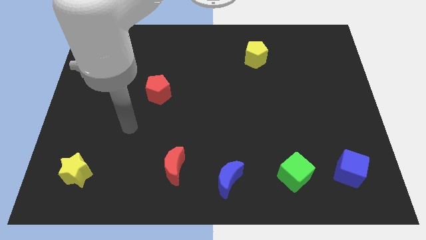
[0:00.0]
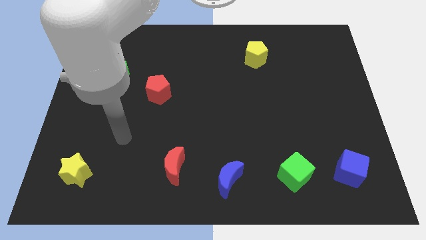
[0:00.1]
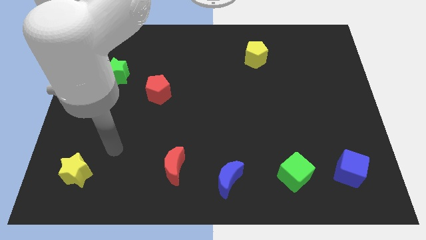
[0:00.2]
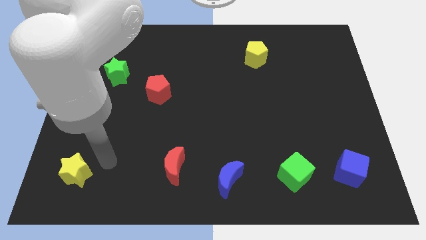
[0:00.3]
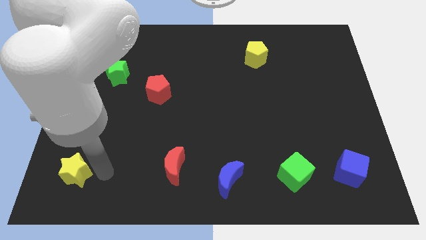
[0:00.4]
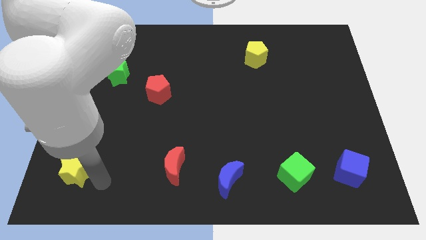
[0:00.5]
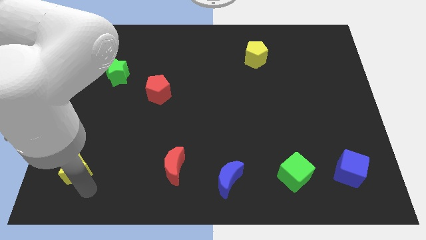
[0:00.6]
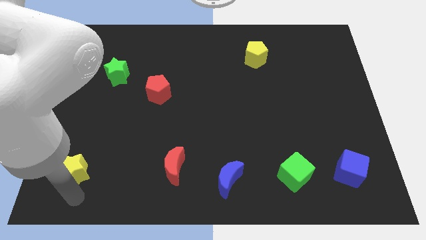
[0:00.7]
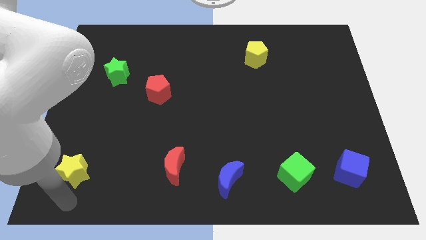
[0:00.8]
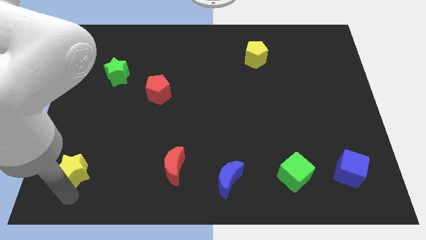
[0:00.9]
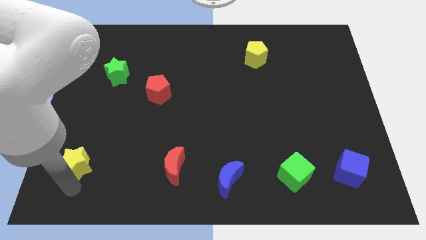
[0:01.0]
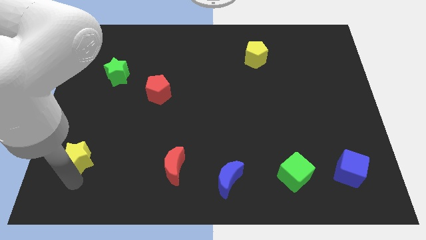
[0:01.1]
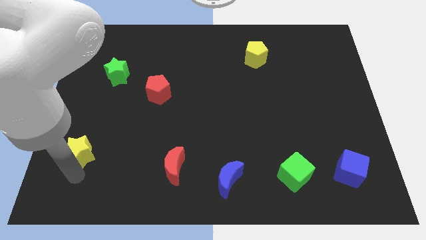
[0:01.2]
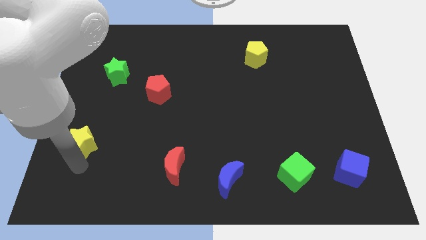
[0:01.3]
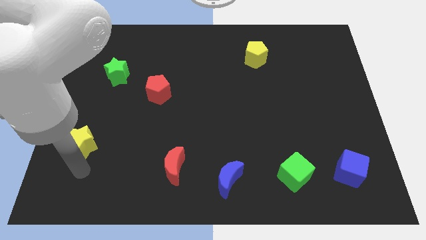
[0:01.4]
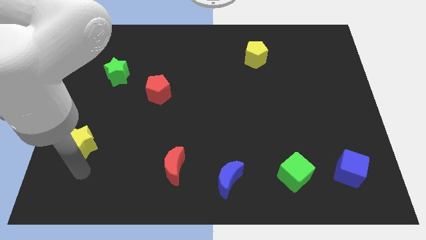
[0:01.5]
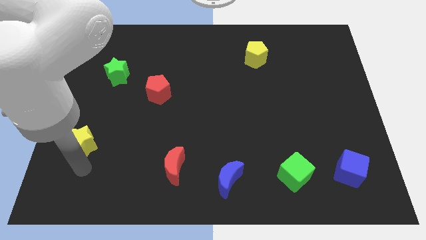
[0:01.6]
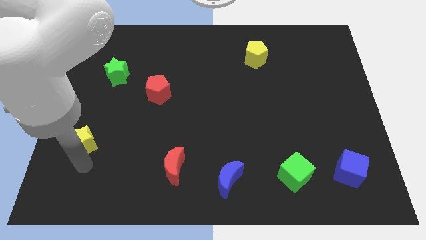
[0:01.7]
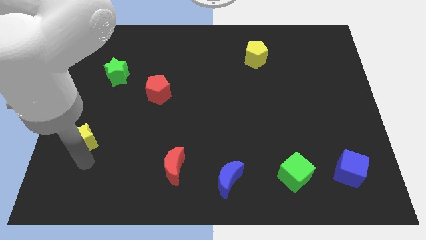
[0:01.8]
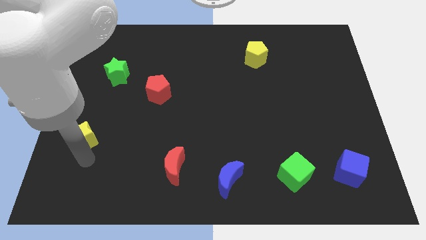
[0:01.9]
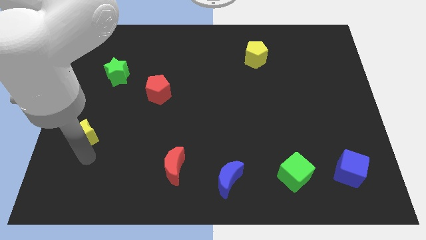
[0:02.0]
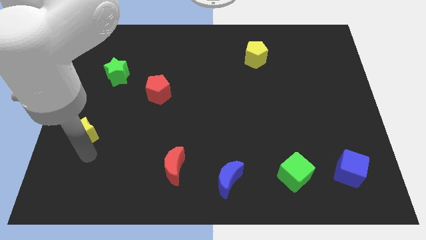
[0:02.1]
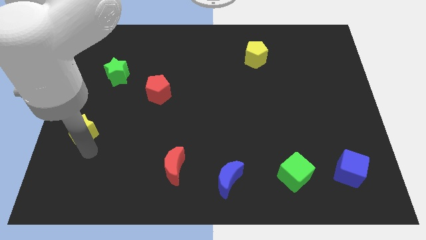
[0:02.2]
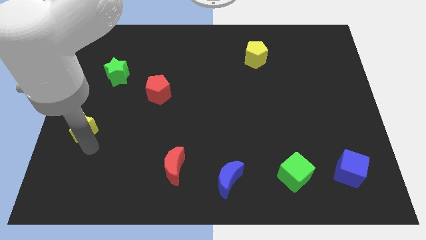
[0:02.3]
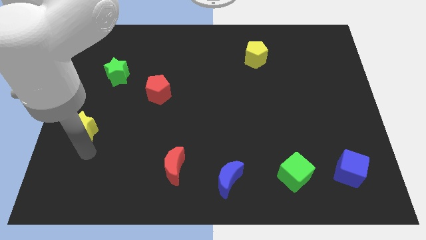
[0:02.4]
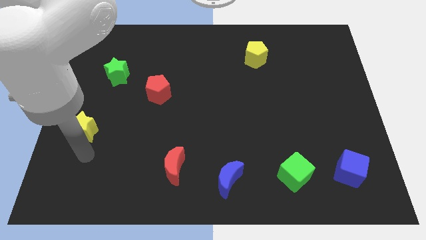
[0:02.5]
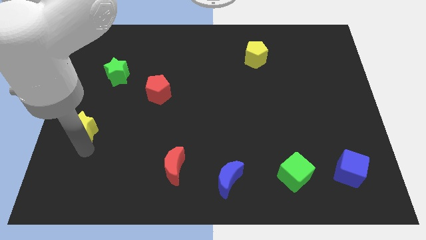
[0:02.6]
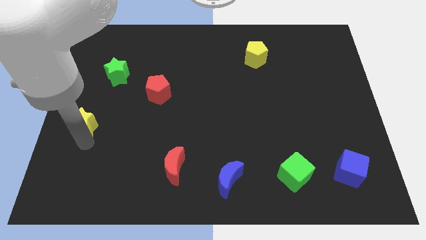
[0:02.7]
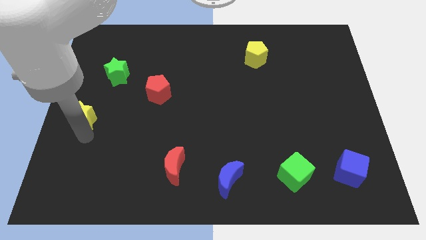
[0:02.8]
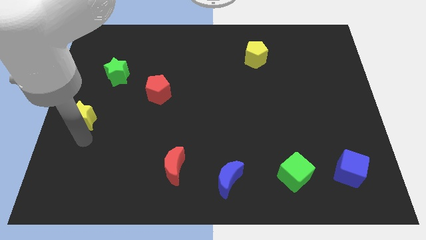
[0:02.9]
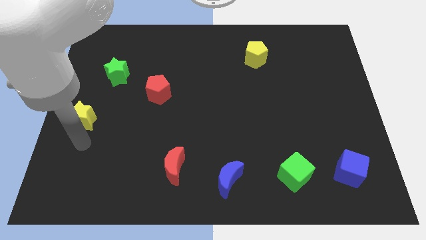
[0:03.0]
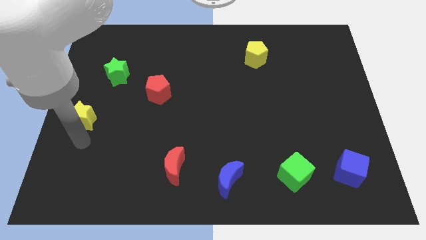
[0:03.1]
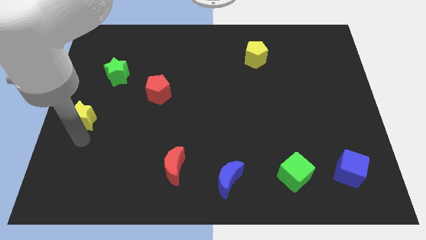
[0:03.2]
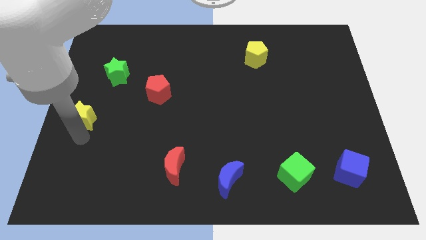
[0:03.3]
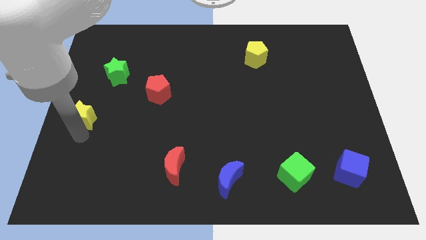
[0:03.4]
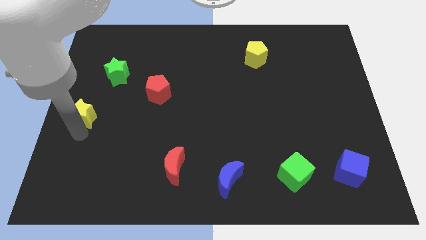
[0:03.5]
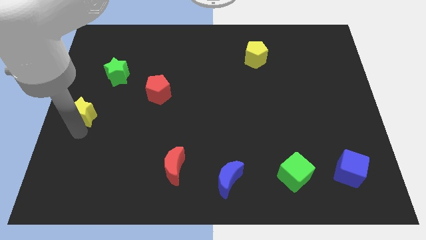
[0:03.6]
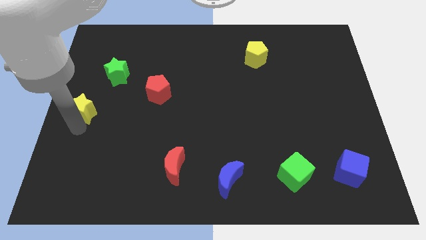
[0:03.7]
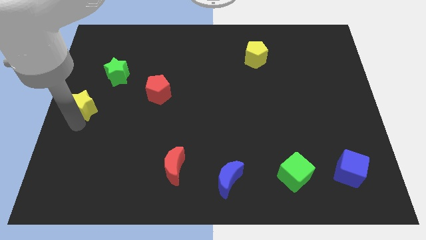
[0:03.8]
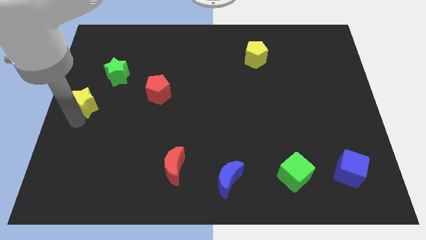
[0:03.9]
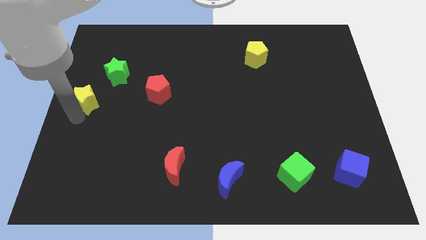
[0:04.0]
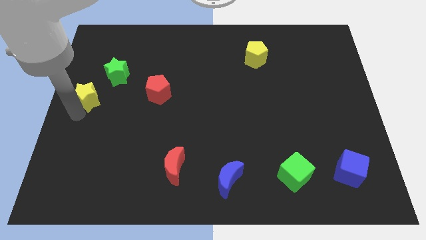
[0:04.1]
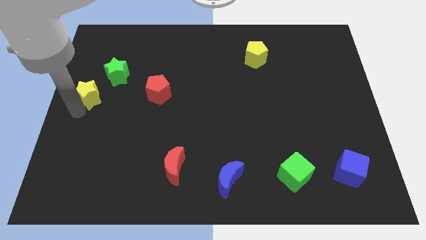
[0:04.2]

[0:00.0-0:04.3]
slide the yellow star up

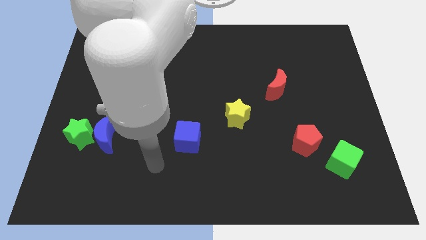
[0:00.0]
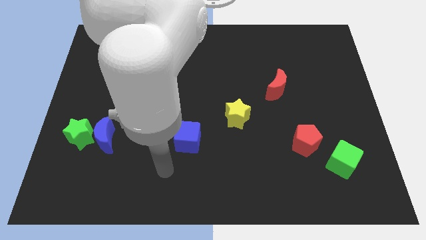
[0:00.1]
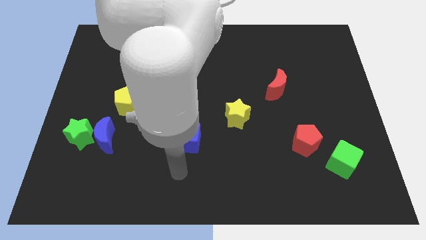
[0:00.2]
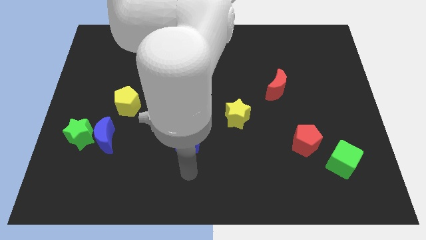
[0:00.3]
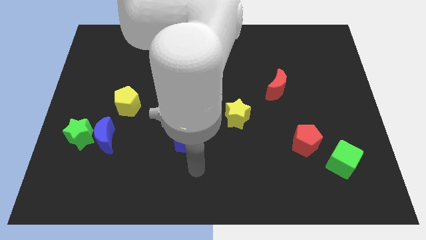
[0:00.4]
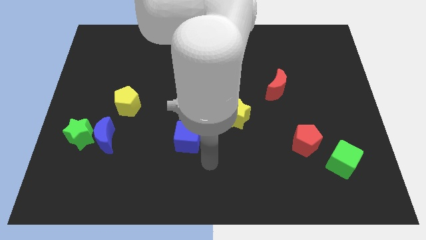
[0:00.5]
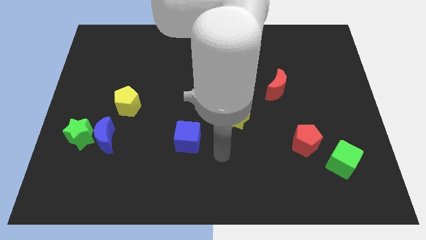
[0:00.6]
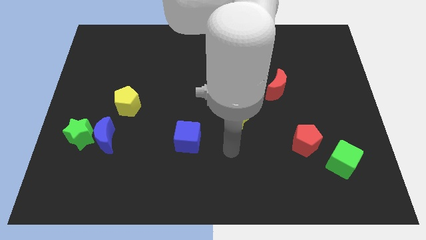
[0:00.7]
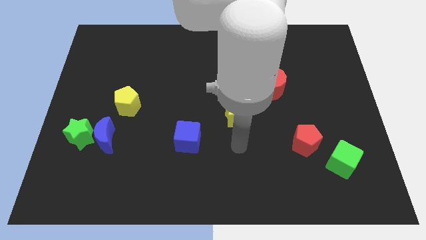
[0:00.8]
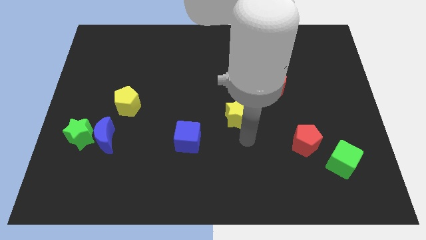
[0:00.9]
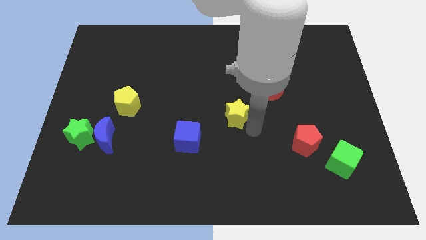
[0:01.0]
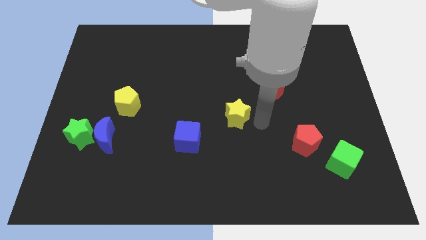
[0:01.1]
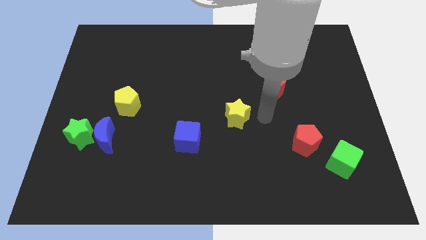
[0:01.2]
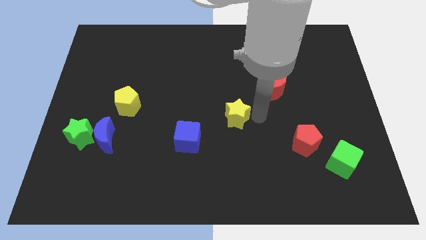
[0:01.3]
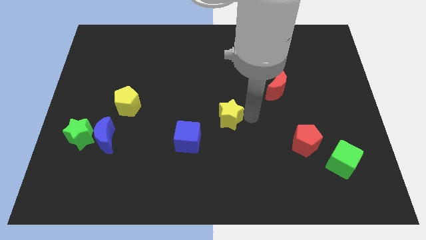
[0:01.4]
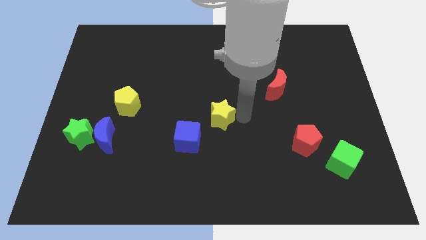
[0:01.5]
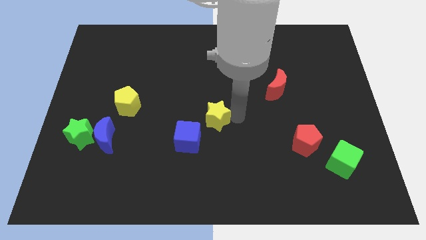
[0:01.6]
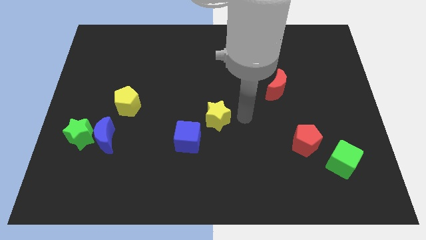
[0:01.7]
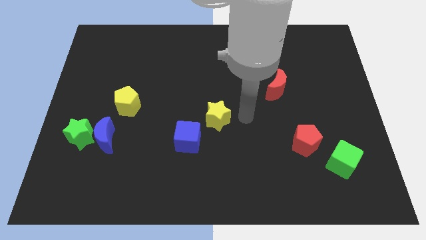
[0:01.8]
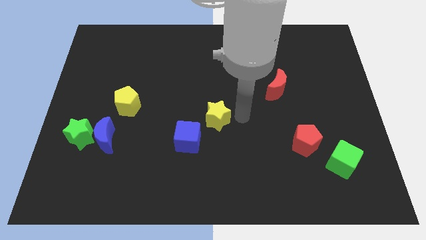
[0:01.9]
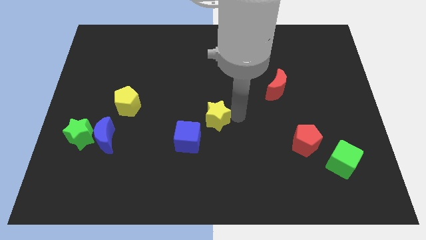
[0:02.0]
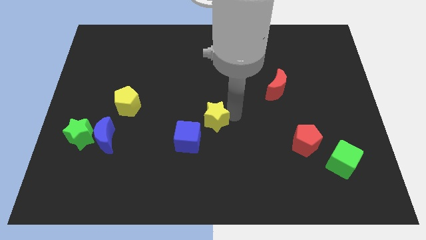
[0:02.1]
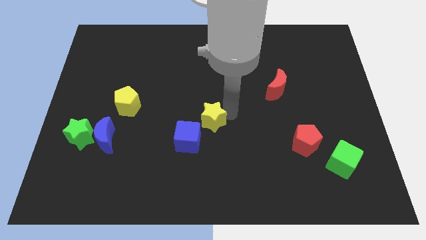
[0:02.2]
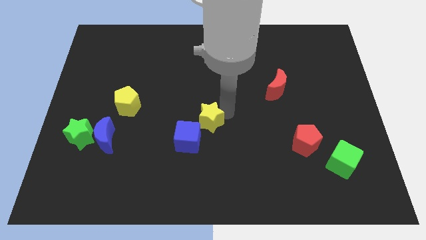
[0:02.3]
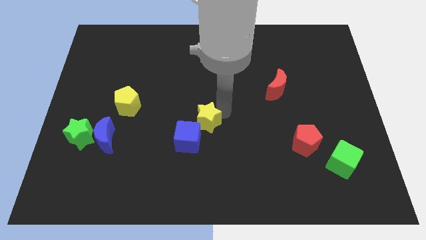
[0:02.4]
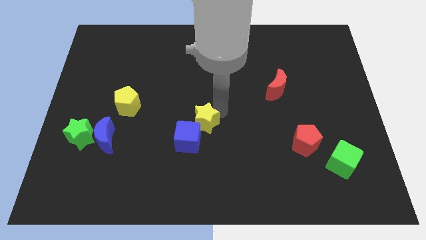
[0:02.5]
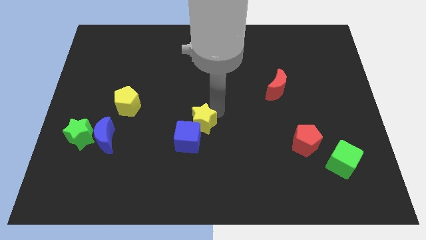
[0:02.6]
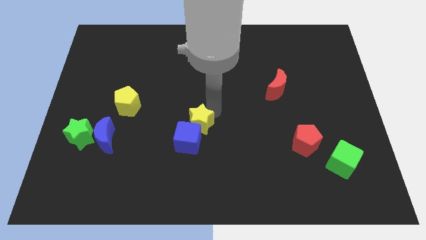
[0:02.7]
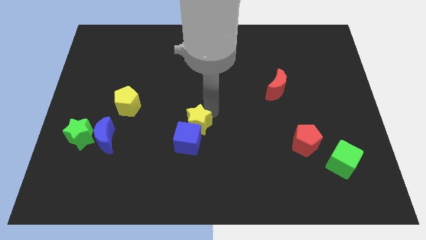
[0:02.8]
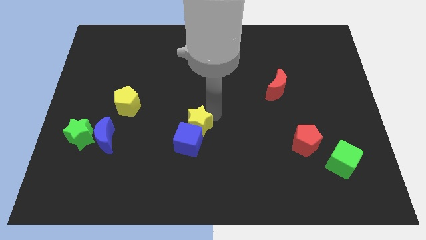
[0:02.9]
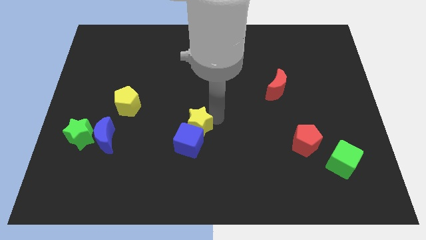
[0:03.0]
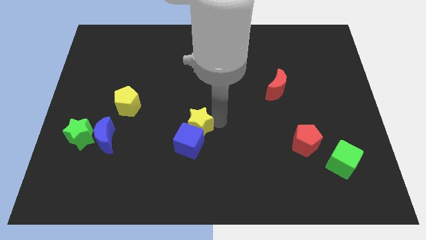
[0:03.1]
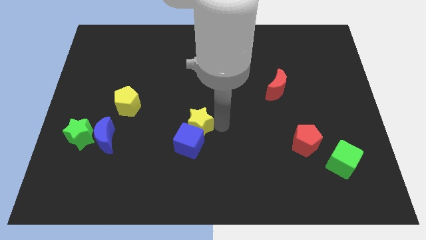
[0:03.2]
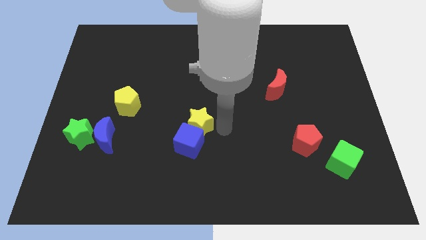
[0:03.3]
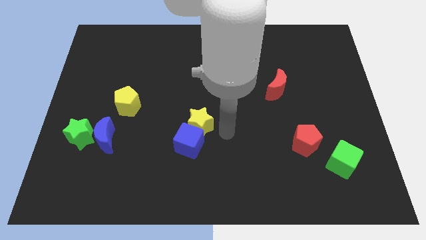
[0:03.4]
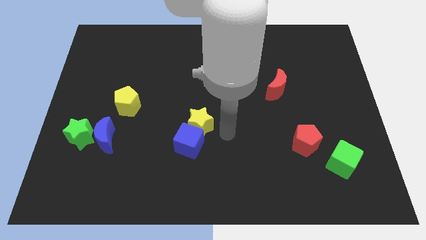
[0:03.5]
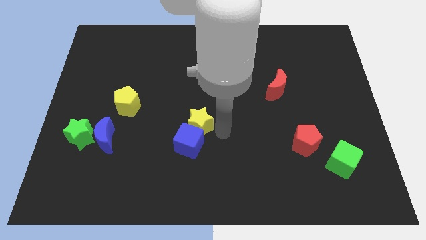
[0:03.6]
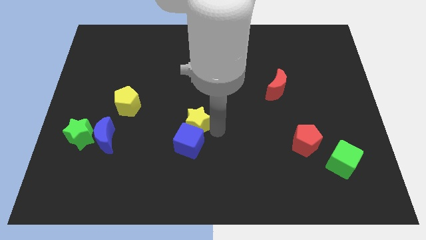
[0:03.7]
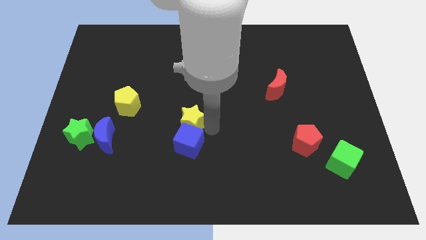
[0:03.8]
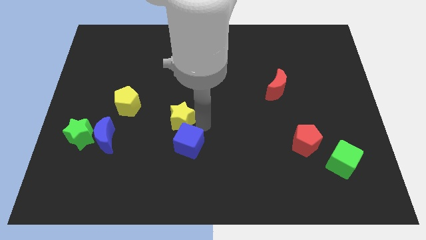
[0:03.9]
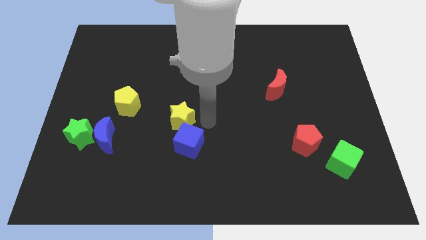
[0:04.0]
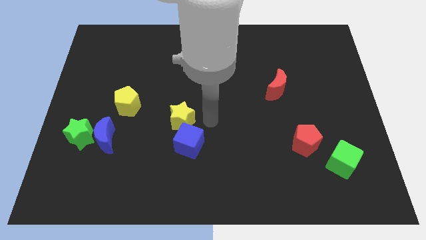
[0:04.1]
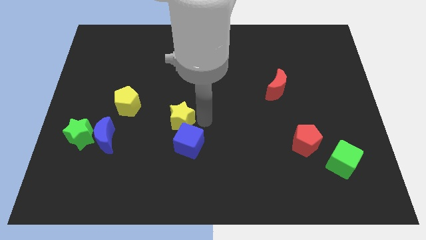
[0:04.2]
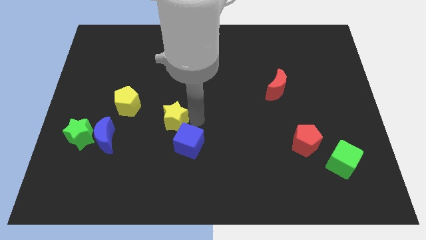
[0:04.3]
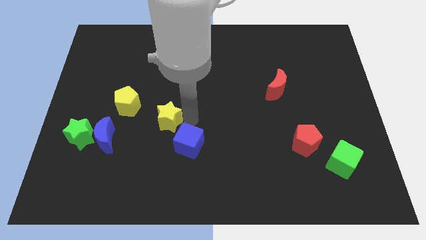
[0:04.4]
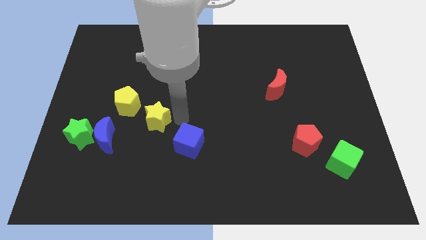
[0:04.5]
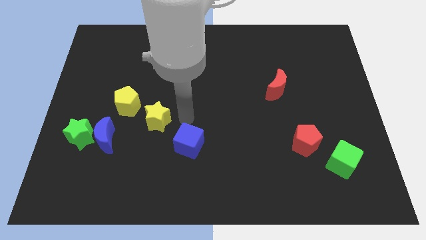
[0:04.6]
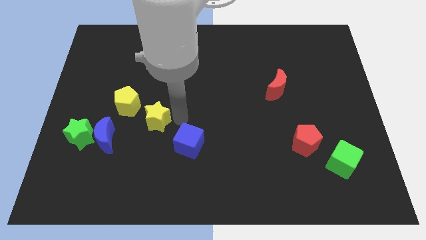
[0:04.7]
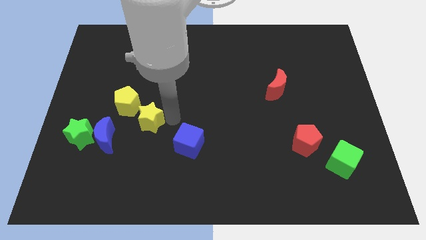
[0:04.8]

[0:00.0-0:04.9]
push the yellow star to the left
